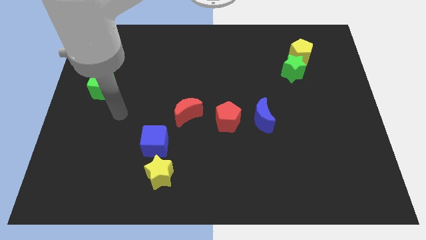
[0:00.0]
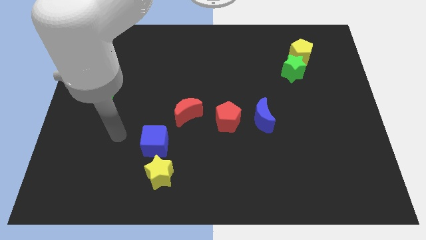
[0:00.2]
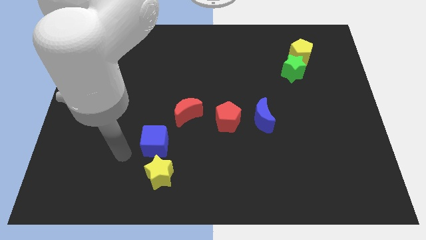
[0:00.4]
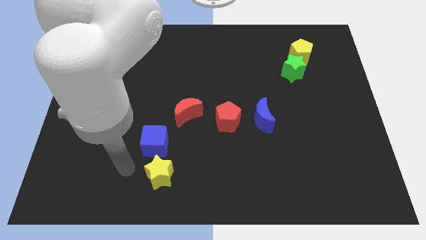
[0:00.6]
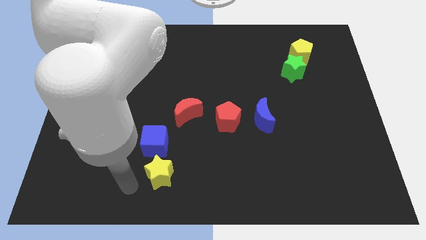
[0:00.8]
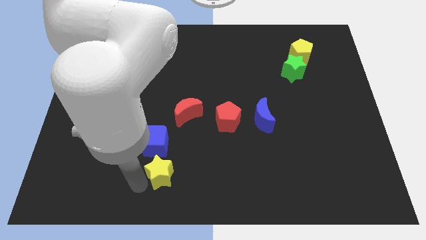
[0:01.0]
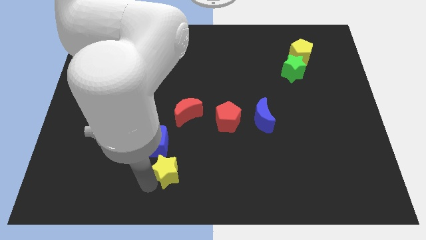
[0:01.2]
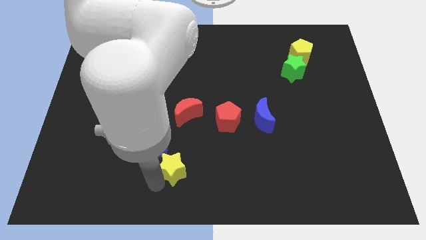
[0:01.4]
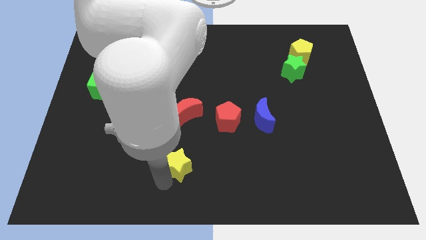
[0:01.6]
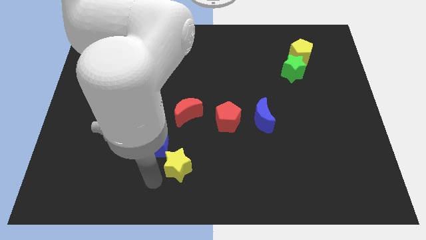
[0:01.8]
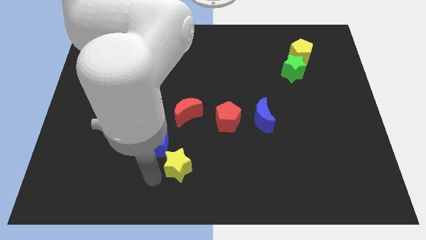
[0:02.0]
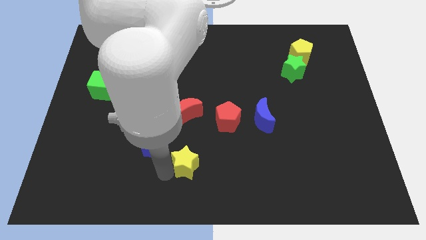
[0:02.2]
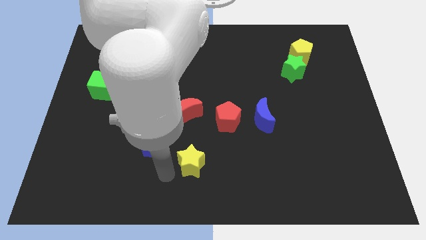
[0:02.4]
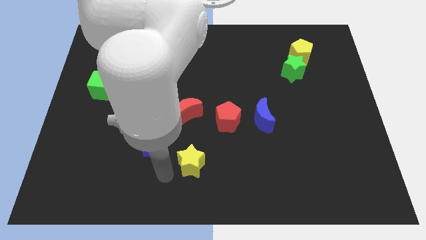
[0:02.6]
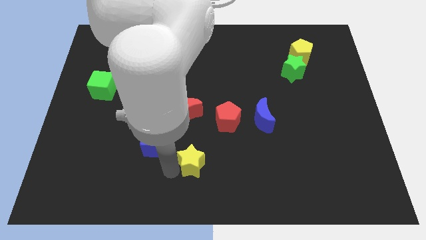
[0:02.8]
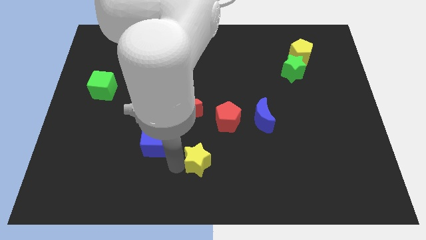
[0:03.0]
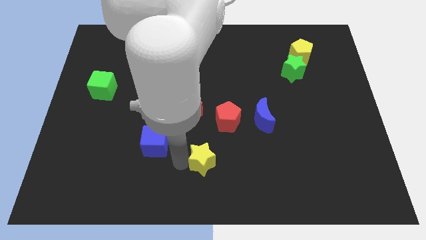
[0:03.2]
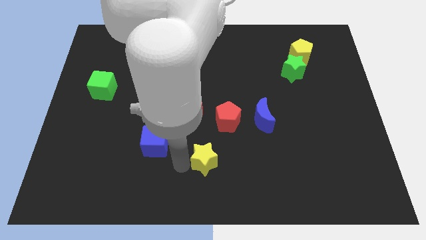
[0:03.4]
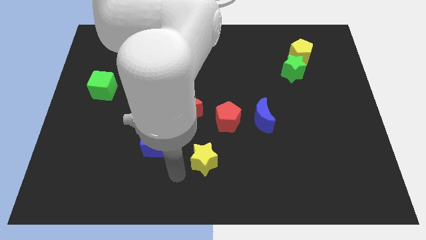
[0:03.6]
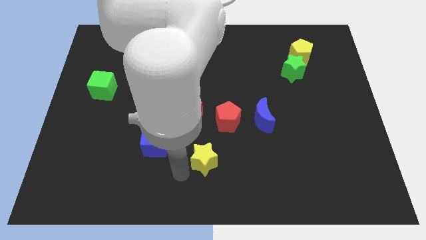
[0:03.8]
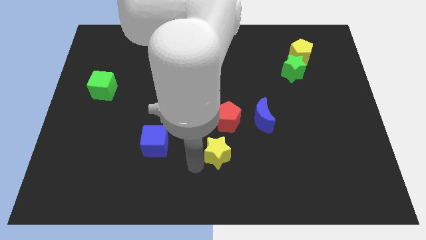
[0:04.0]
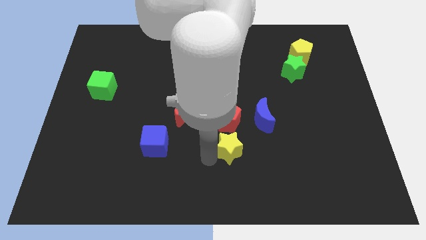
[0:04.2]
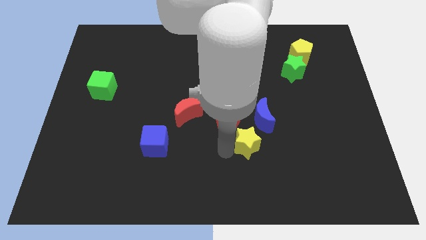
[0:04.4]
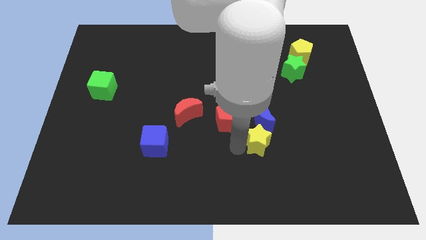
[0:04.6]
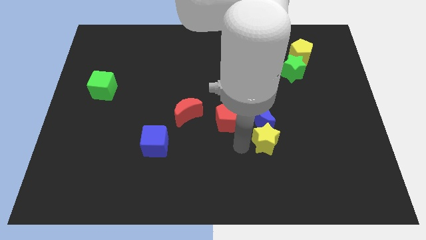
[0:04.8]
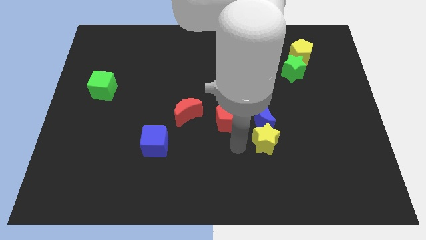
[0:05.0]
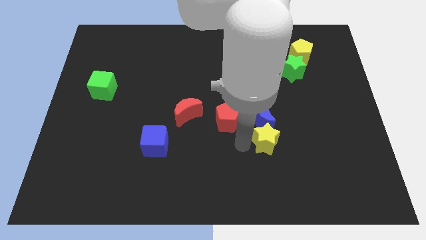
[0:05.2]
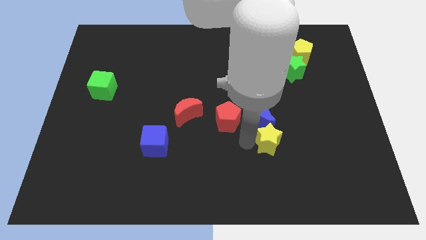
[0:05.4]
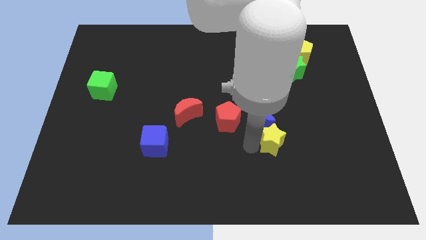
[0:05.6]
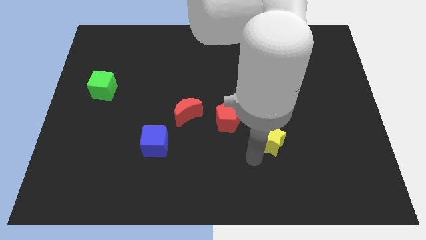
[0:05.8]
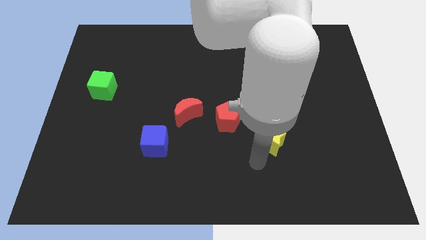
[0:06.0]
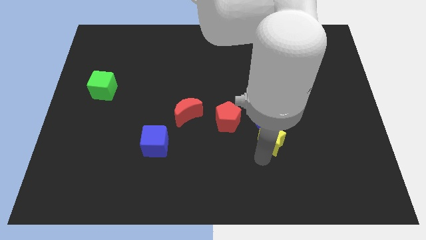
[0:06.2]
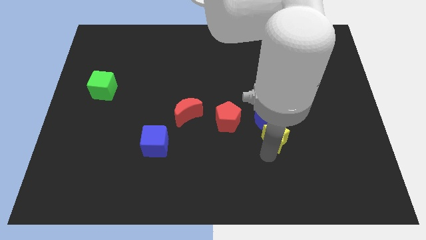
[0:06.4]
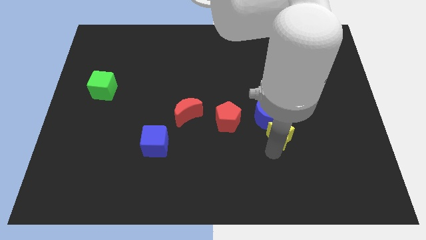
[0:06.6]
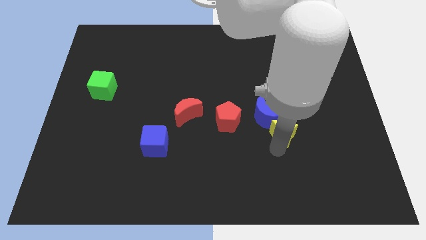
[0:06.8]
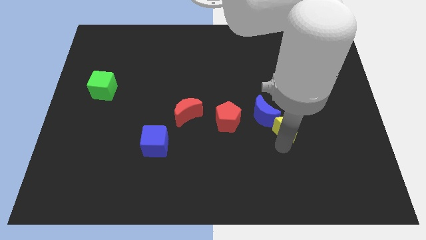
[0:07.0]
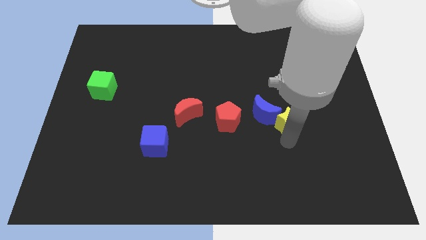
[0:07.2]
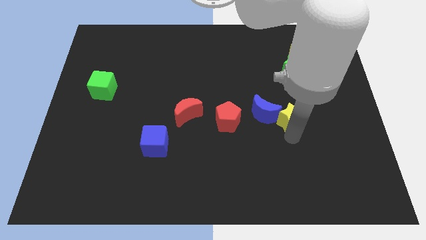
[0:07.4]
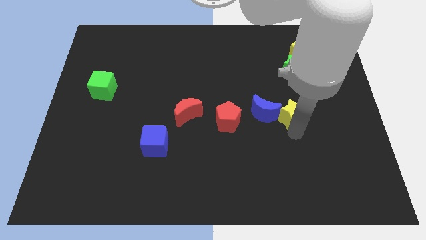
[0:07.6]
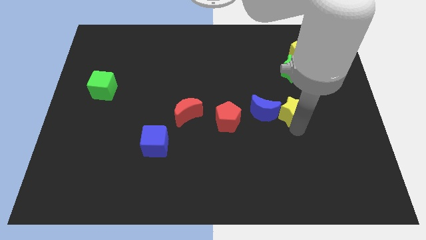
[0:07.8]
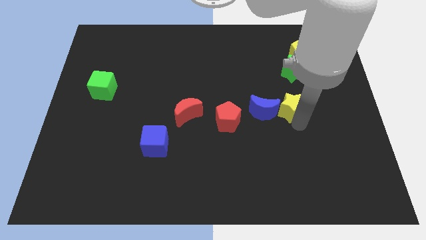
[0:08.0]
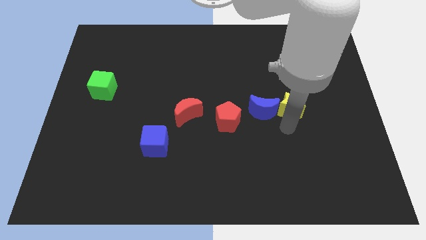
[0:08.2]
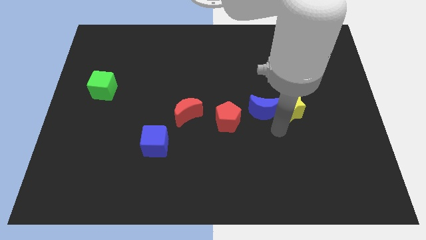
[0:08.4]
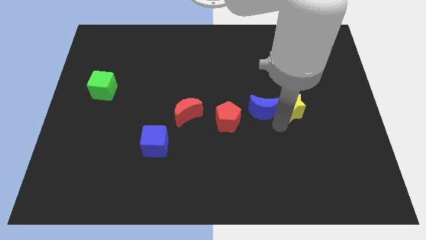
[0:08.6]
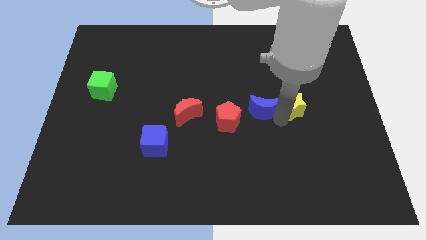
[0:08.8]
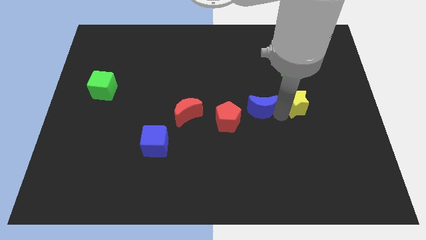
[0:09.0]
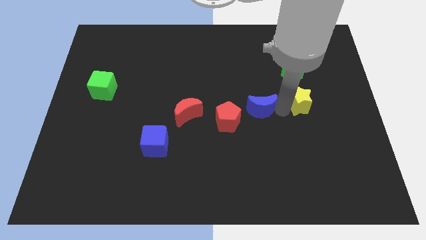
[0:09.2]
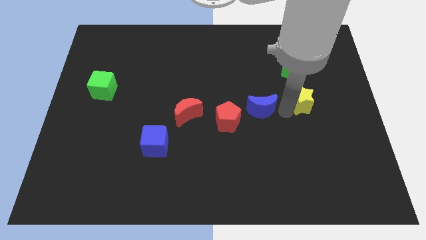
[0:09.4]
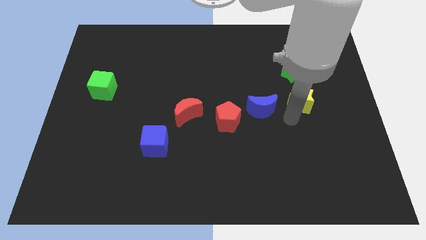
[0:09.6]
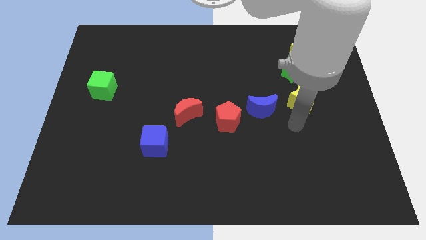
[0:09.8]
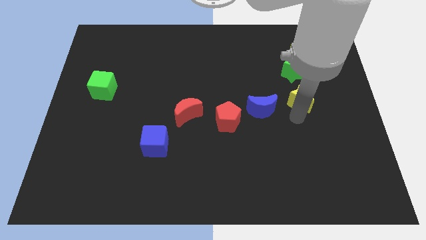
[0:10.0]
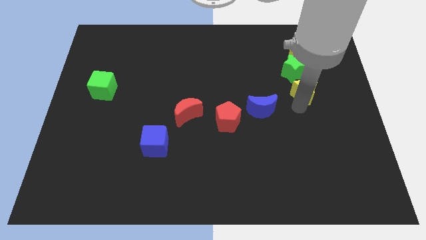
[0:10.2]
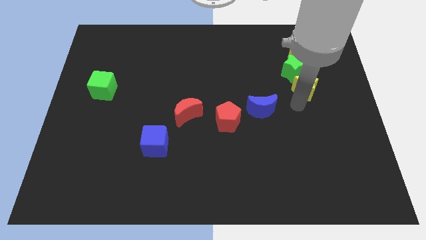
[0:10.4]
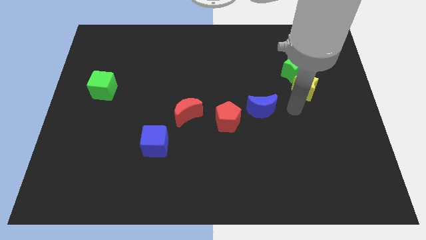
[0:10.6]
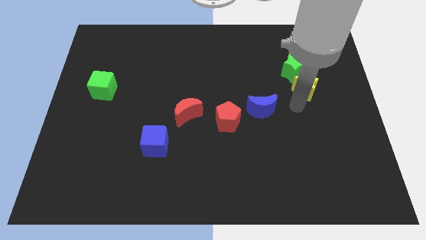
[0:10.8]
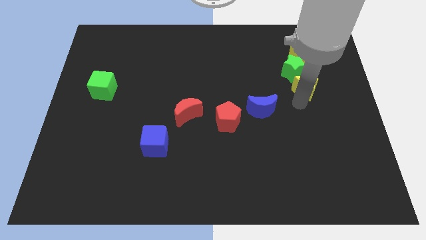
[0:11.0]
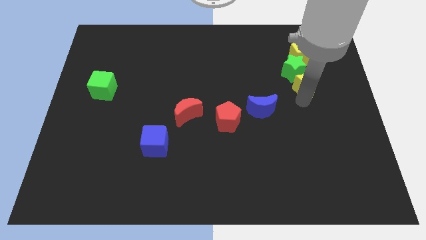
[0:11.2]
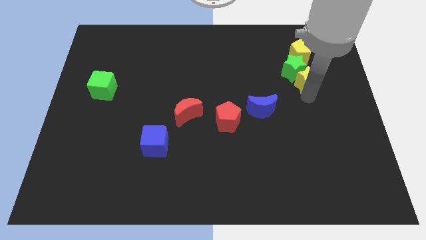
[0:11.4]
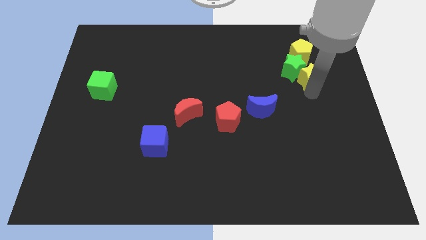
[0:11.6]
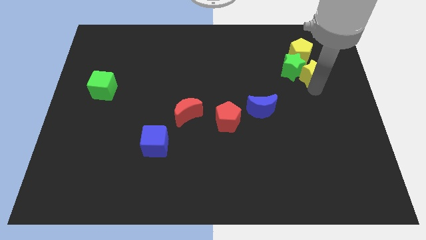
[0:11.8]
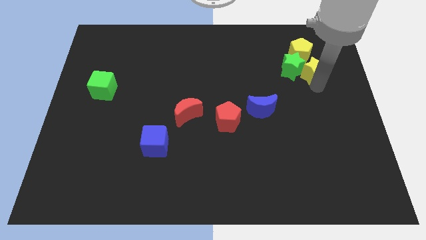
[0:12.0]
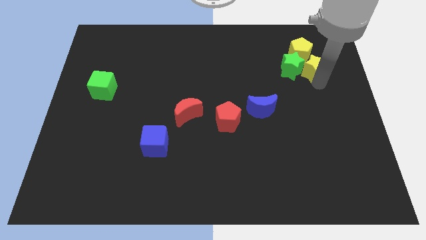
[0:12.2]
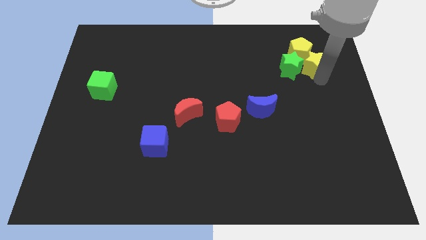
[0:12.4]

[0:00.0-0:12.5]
slide the yellow star close to the yellow pentagon

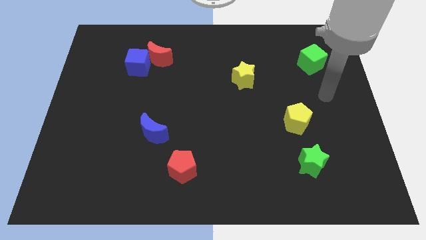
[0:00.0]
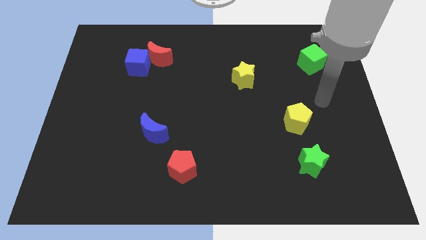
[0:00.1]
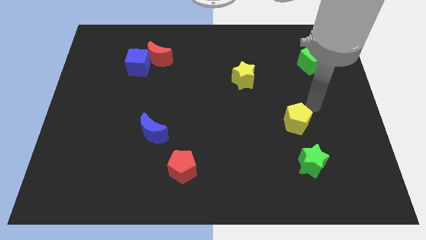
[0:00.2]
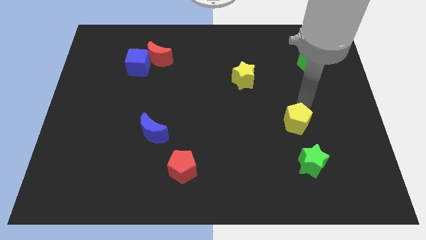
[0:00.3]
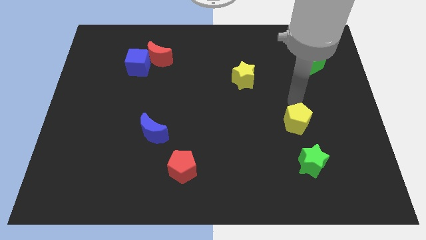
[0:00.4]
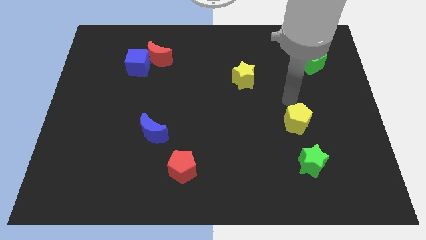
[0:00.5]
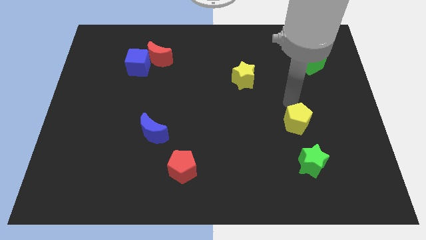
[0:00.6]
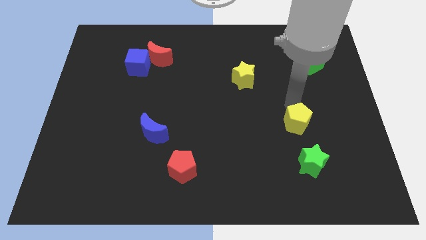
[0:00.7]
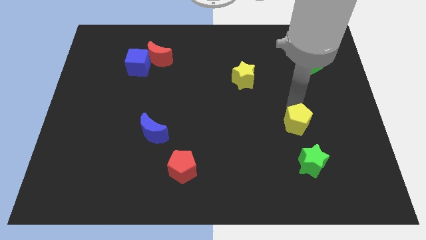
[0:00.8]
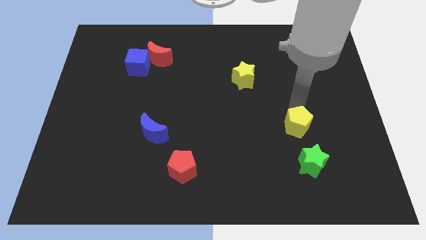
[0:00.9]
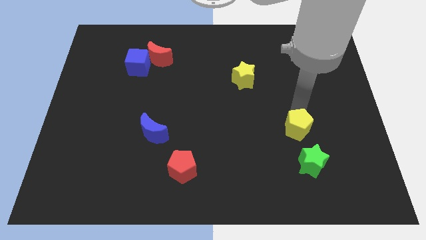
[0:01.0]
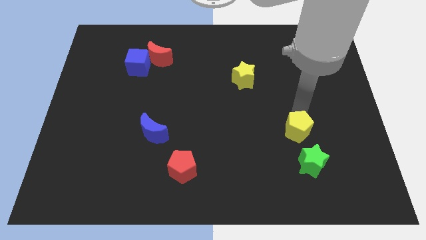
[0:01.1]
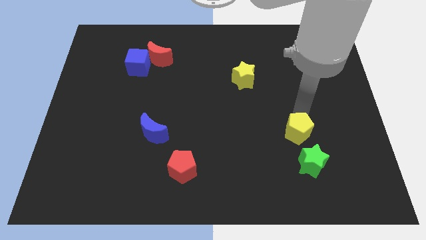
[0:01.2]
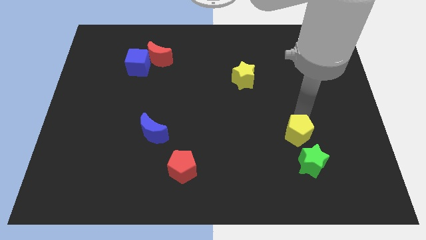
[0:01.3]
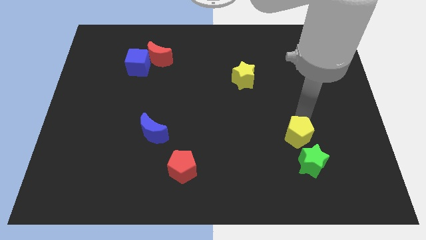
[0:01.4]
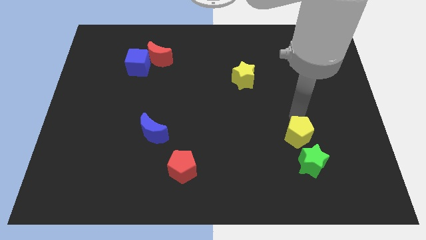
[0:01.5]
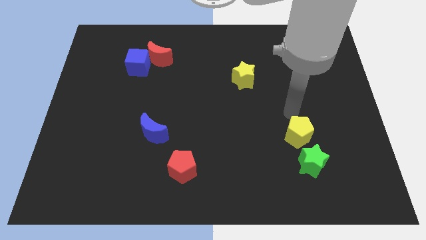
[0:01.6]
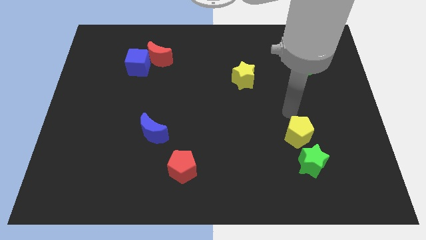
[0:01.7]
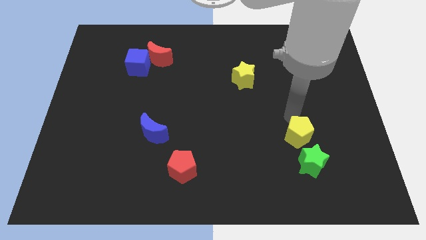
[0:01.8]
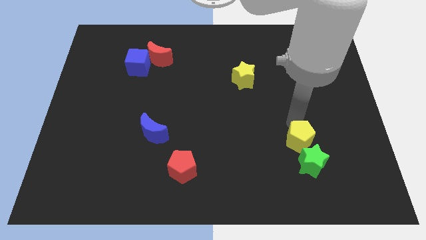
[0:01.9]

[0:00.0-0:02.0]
push the yellow pentagon close to the green star
